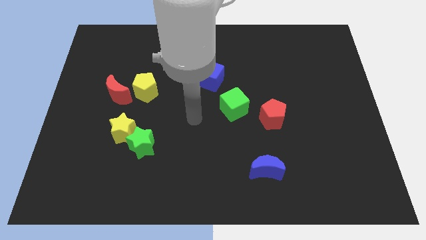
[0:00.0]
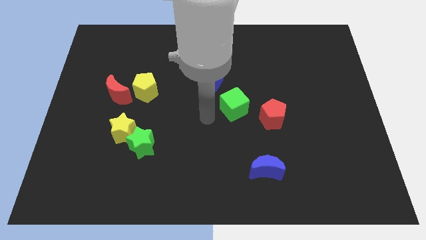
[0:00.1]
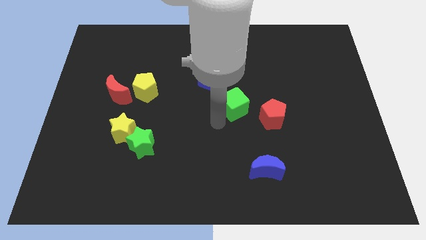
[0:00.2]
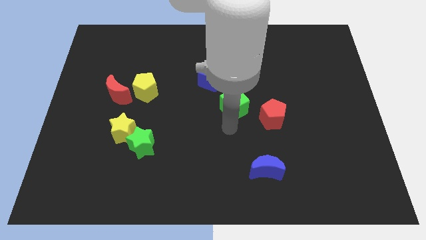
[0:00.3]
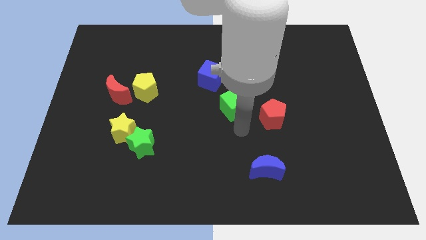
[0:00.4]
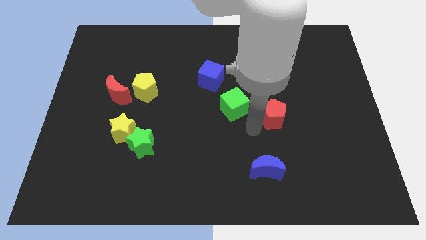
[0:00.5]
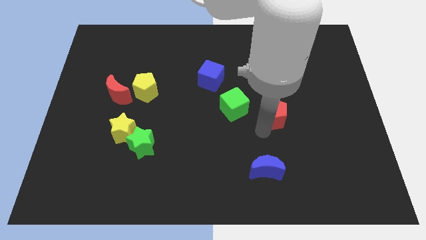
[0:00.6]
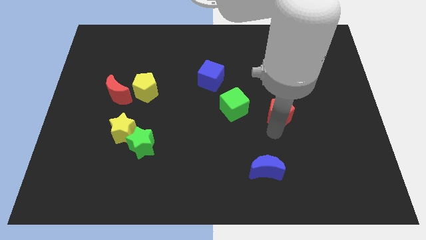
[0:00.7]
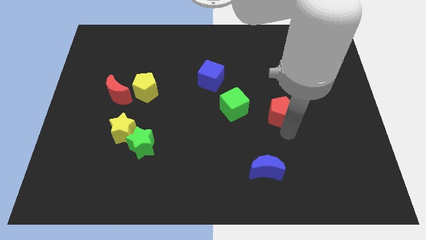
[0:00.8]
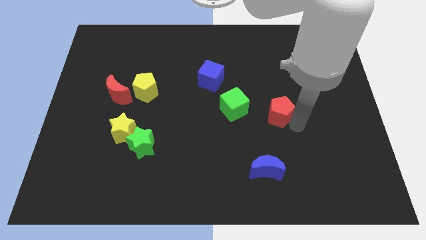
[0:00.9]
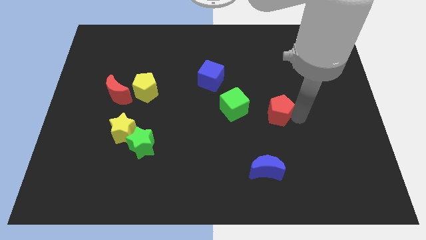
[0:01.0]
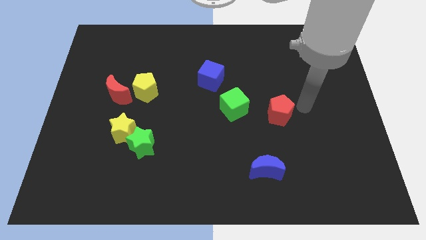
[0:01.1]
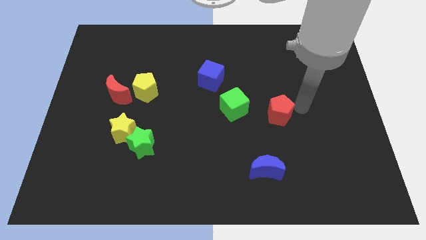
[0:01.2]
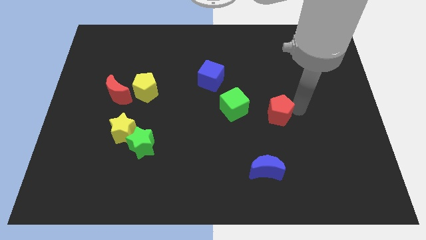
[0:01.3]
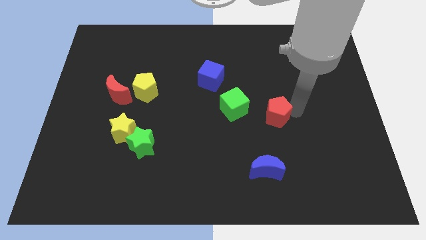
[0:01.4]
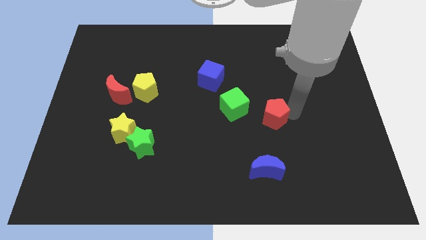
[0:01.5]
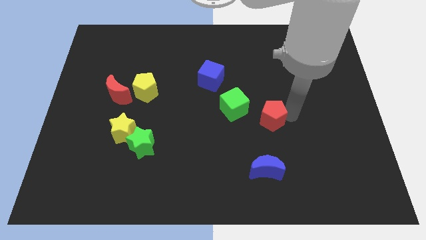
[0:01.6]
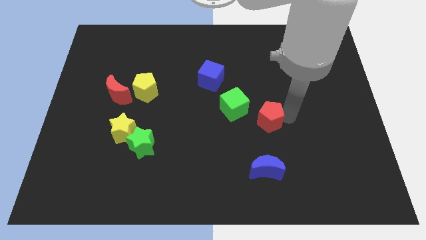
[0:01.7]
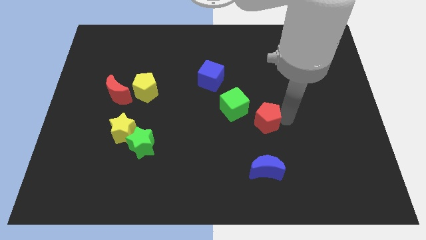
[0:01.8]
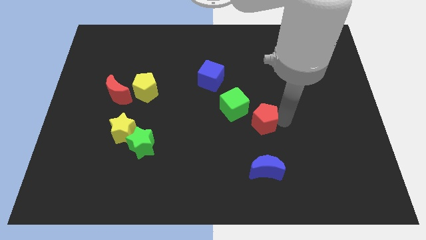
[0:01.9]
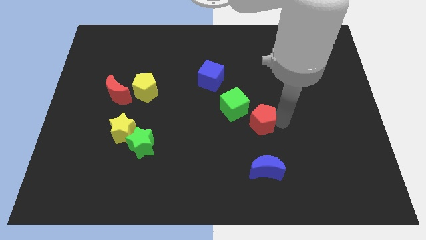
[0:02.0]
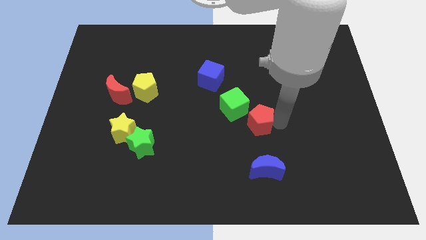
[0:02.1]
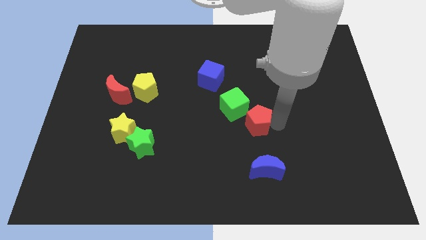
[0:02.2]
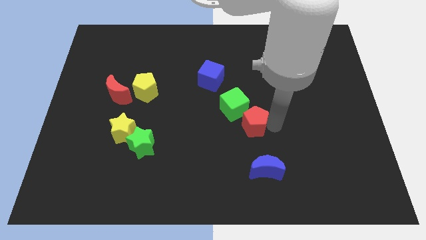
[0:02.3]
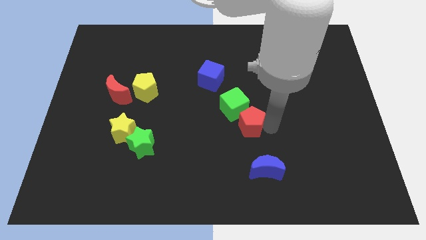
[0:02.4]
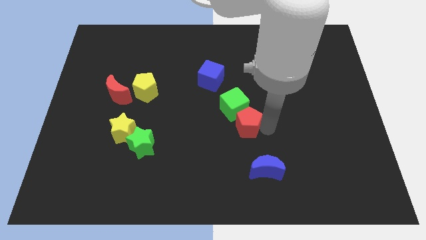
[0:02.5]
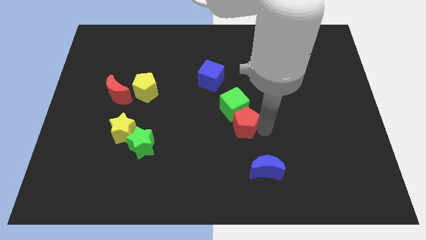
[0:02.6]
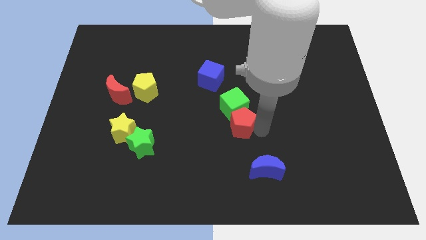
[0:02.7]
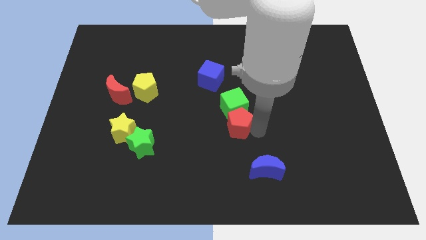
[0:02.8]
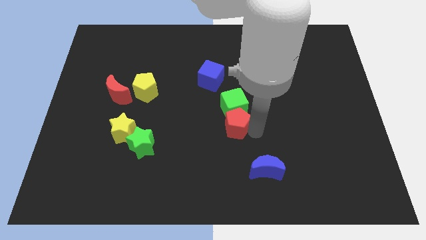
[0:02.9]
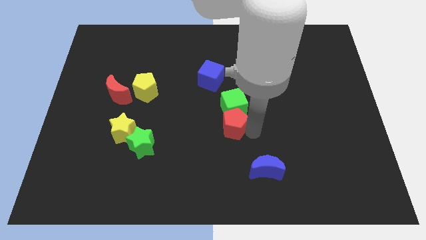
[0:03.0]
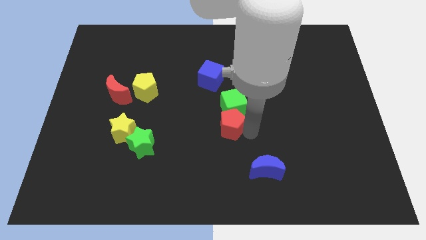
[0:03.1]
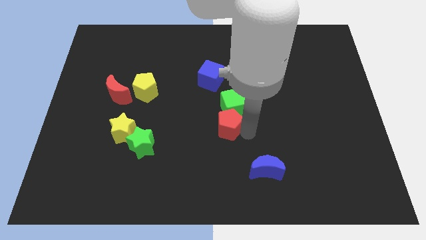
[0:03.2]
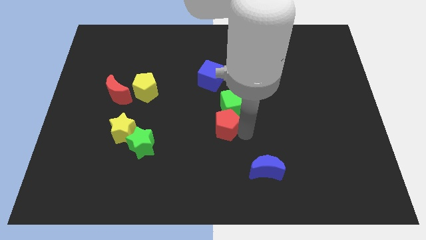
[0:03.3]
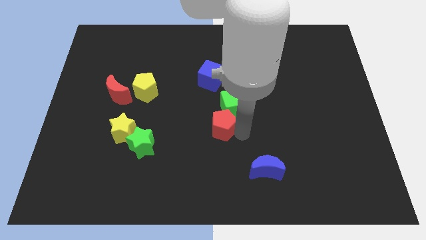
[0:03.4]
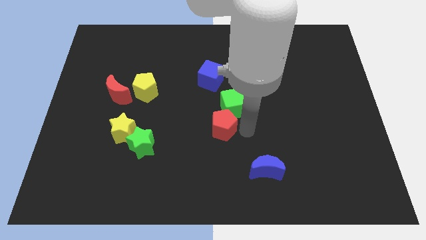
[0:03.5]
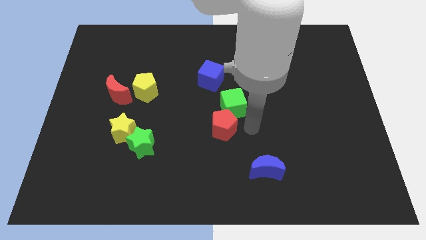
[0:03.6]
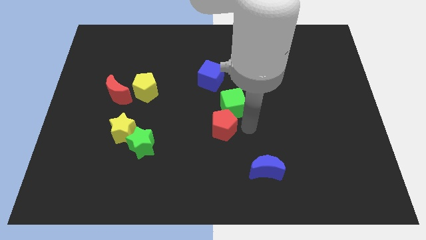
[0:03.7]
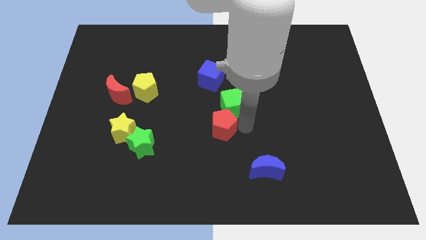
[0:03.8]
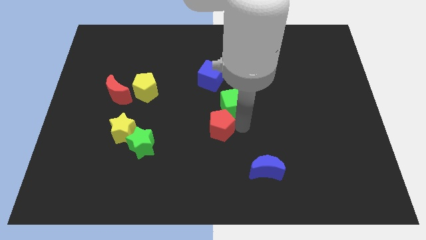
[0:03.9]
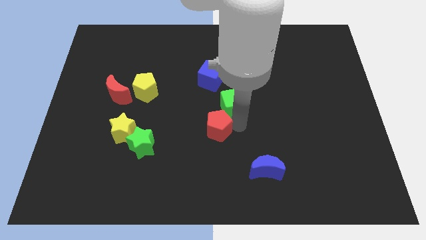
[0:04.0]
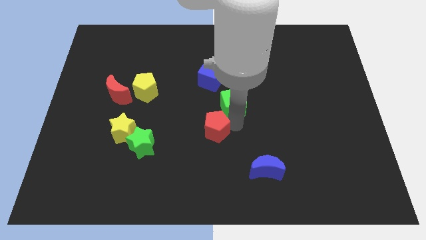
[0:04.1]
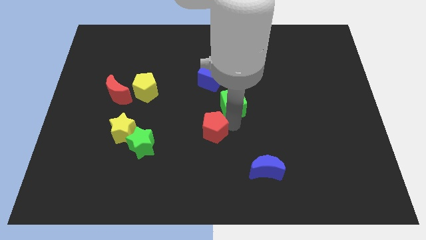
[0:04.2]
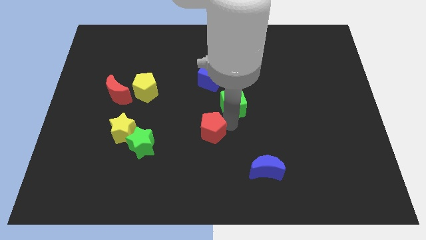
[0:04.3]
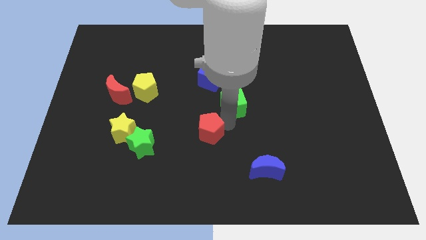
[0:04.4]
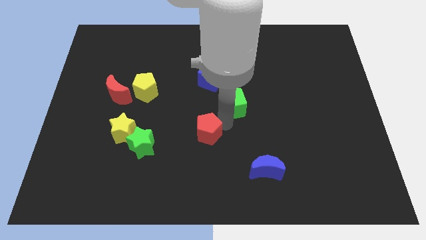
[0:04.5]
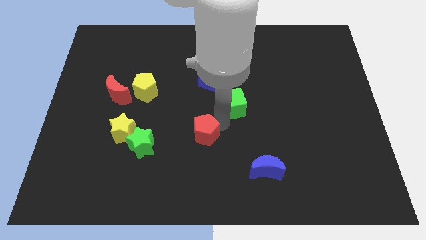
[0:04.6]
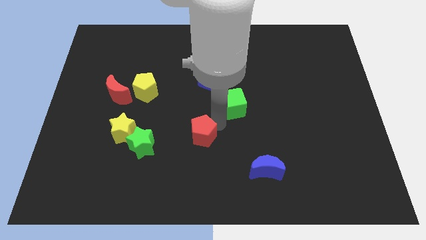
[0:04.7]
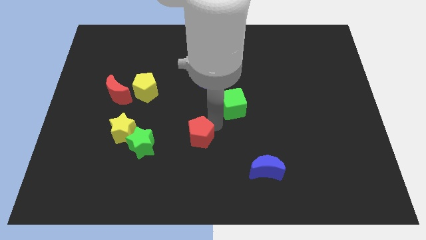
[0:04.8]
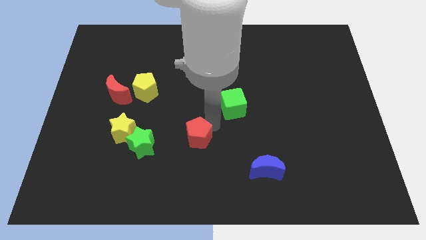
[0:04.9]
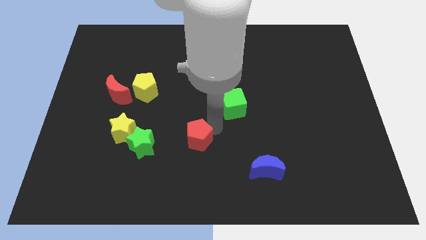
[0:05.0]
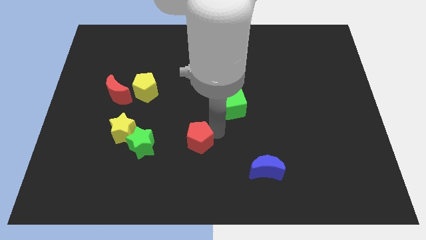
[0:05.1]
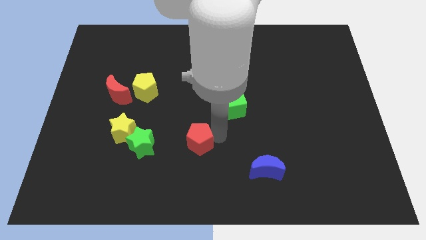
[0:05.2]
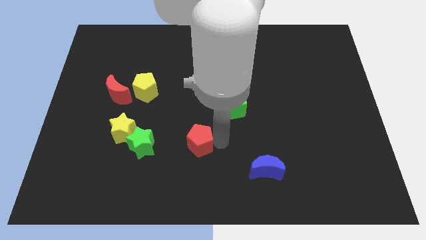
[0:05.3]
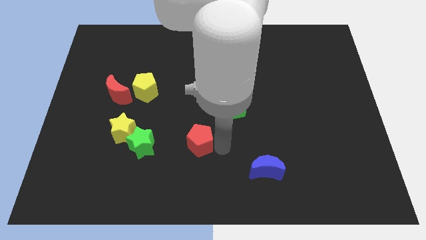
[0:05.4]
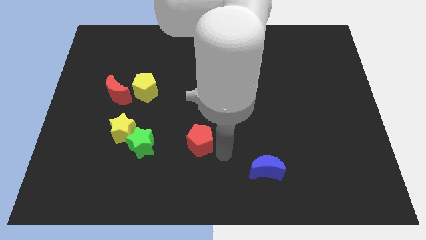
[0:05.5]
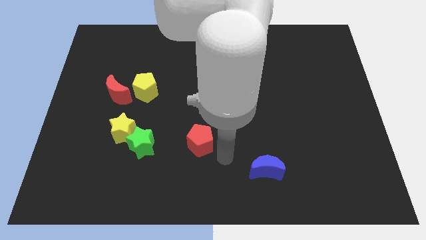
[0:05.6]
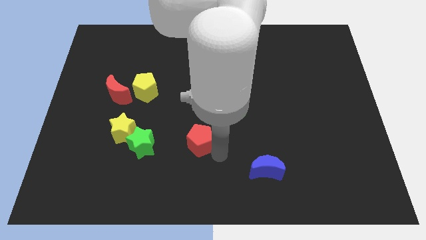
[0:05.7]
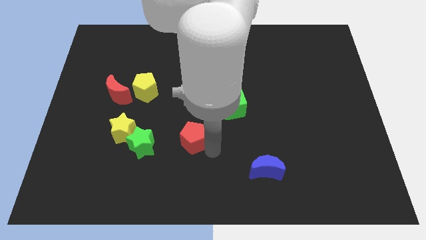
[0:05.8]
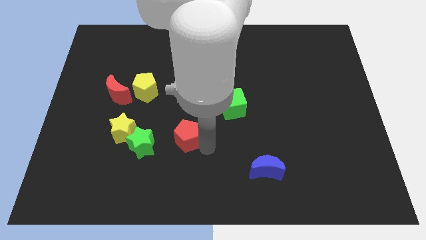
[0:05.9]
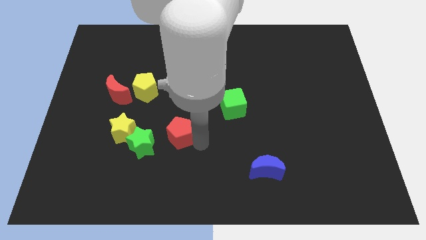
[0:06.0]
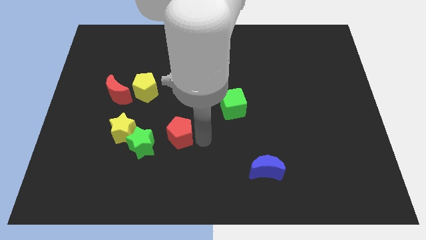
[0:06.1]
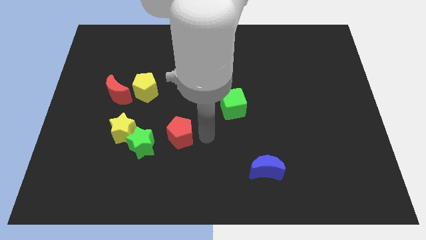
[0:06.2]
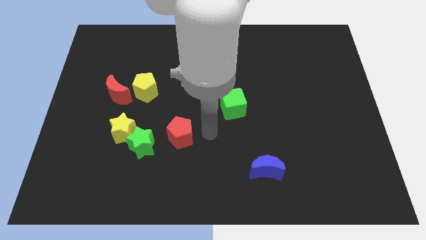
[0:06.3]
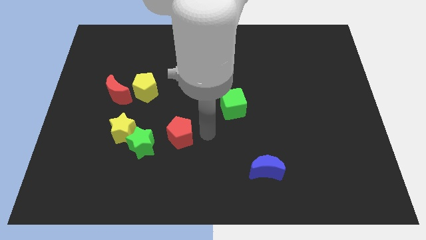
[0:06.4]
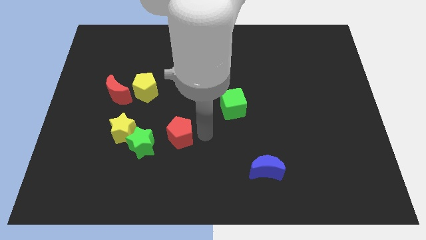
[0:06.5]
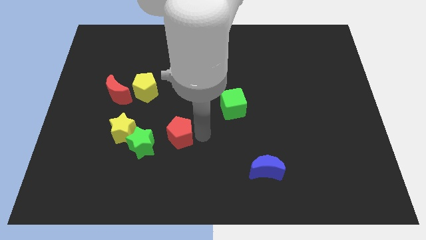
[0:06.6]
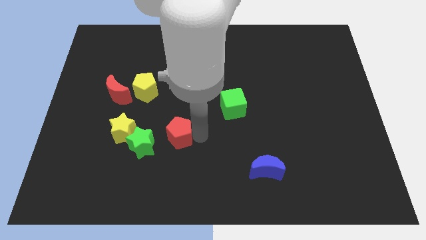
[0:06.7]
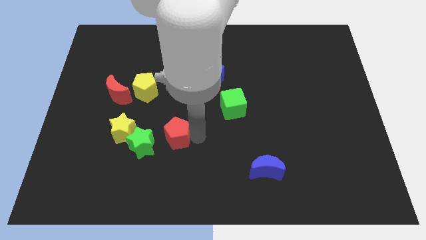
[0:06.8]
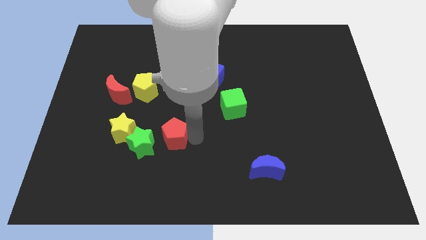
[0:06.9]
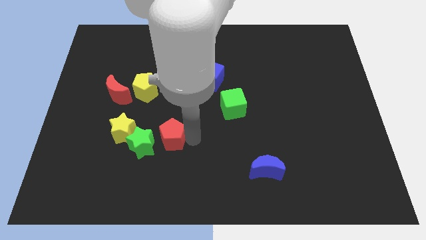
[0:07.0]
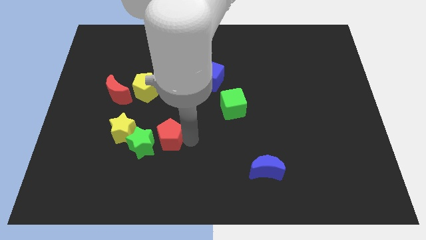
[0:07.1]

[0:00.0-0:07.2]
move the red pentagon to the green star
